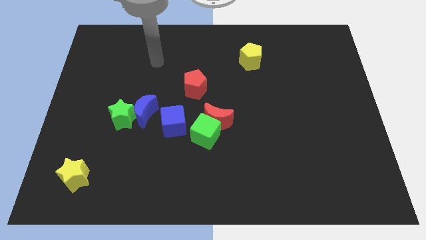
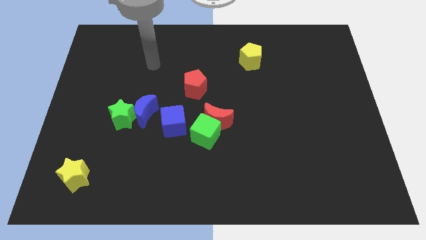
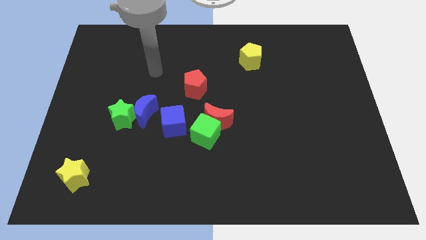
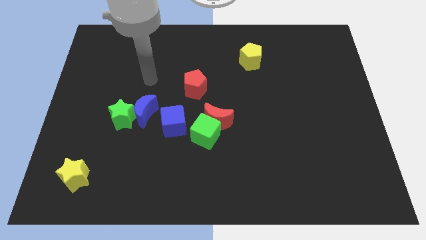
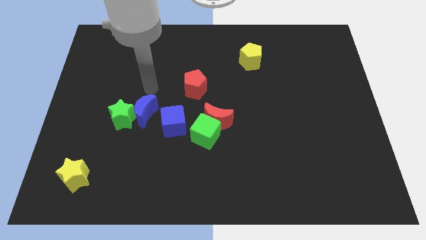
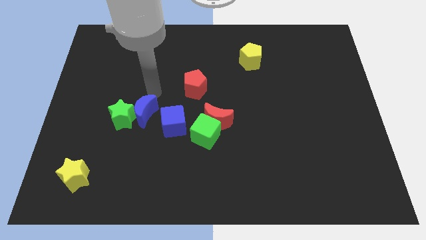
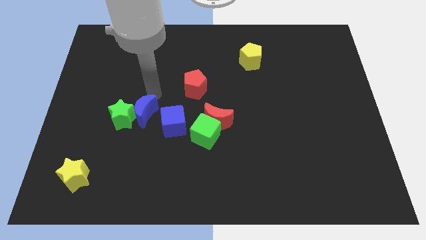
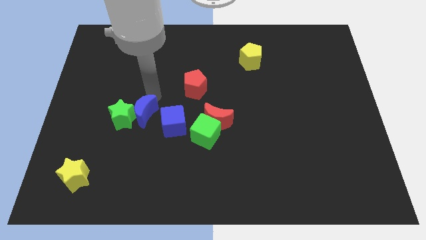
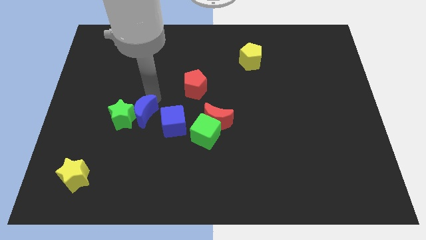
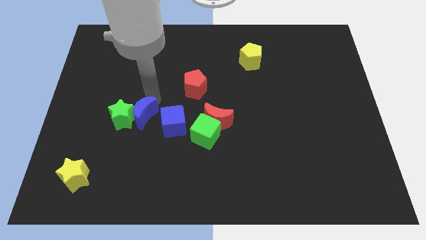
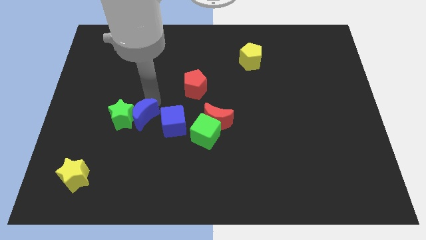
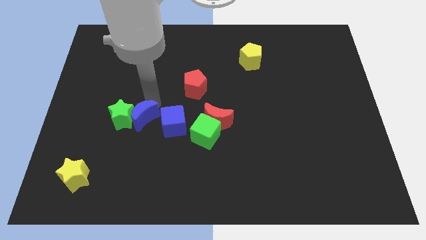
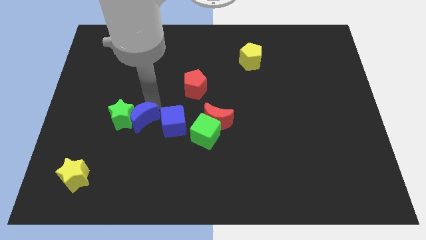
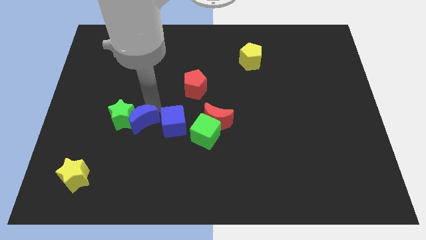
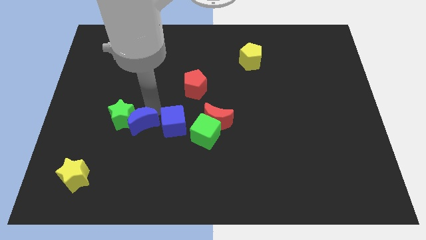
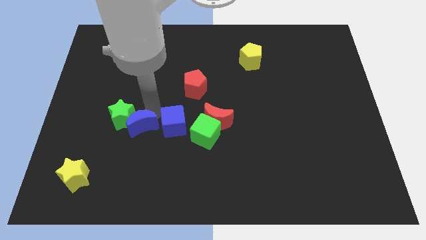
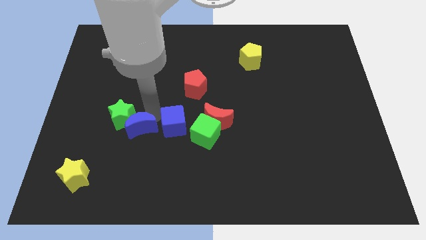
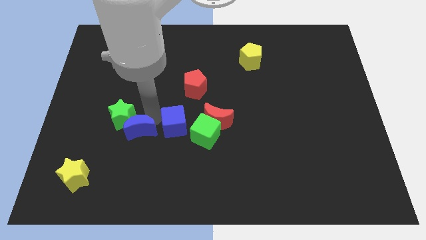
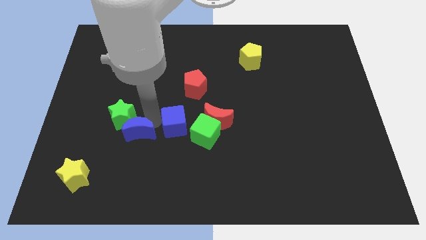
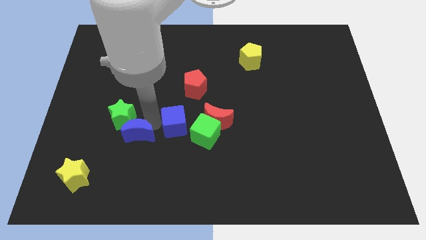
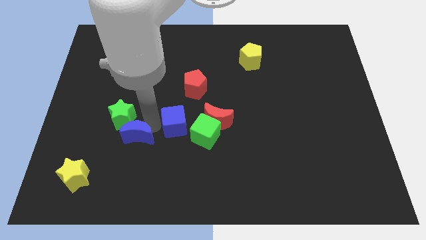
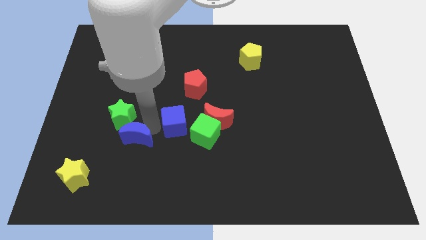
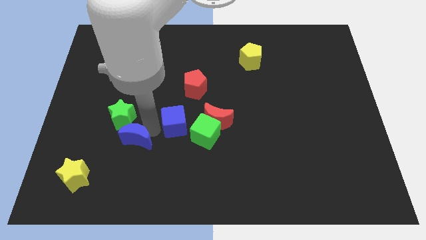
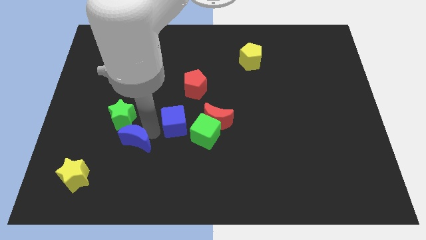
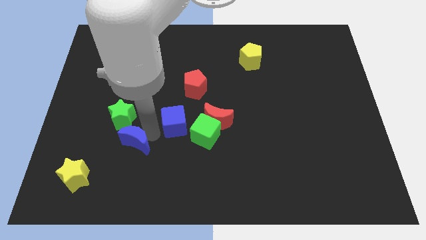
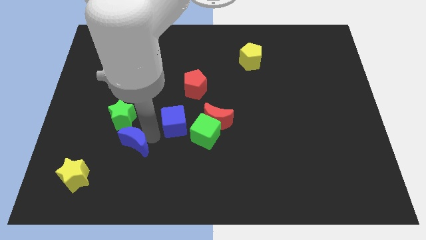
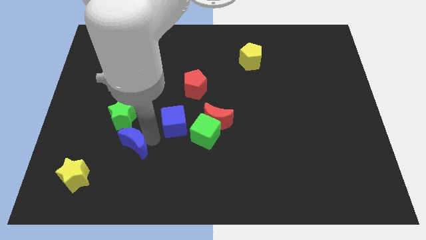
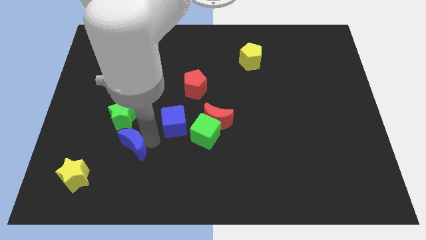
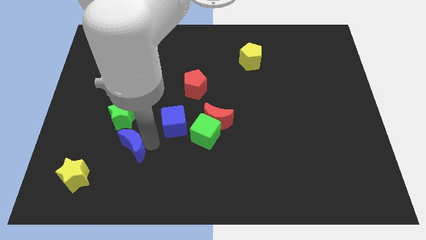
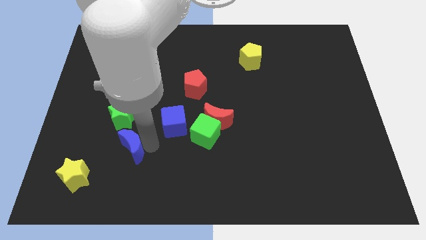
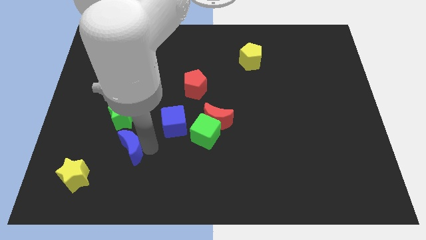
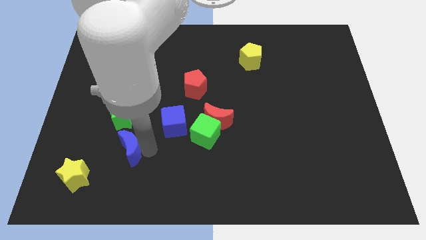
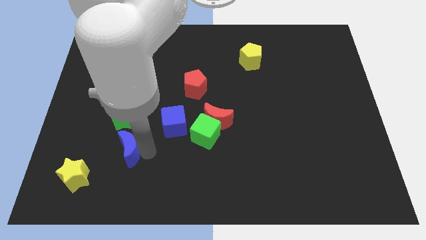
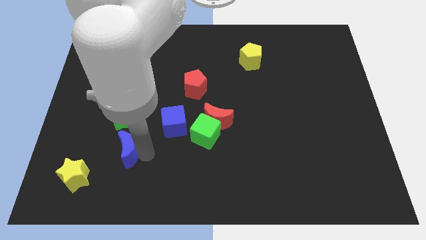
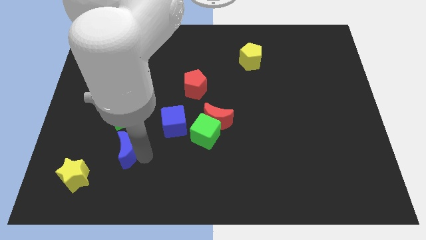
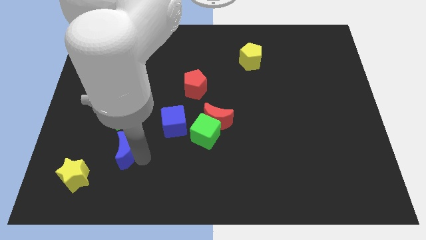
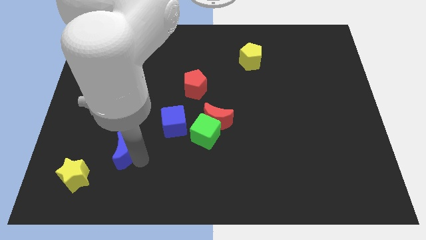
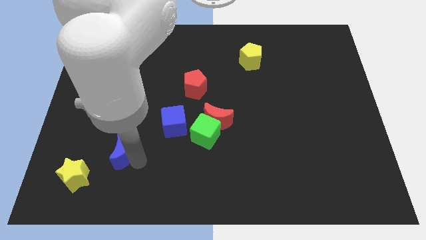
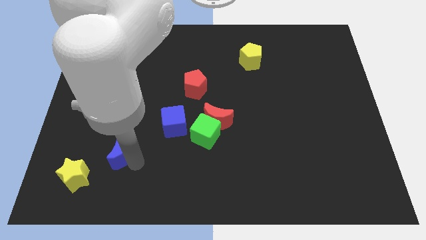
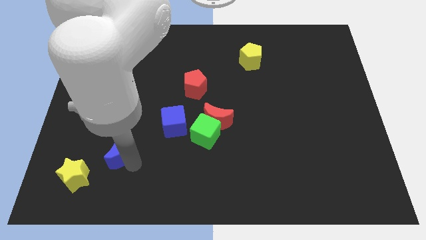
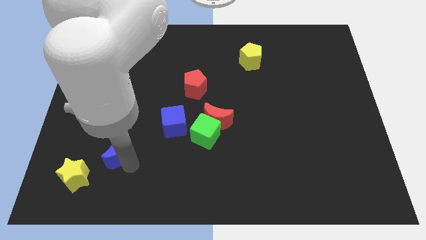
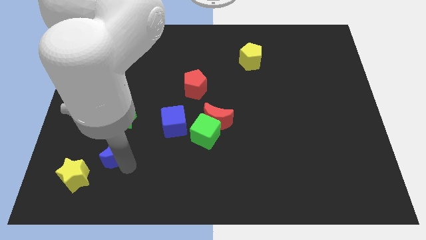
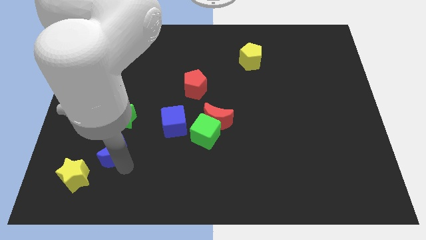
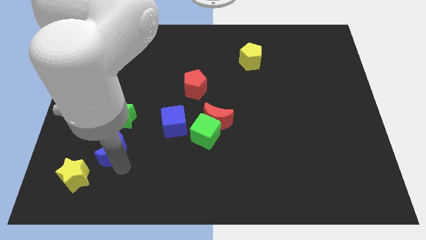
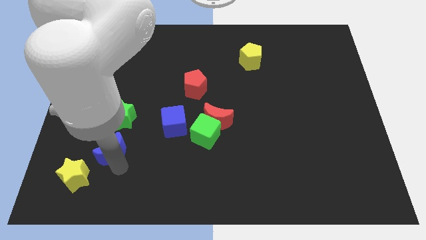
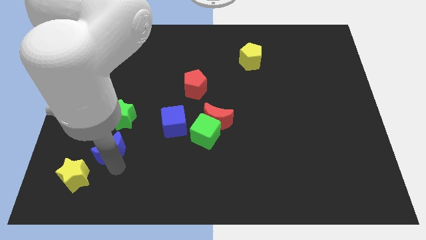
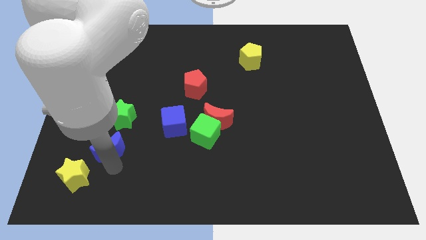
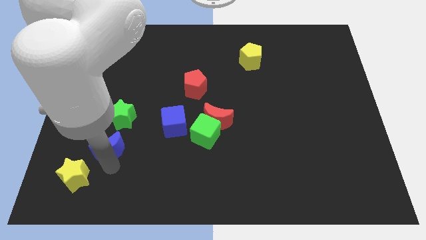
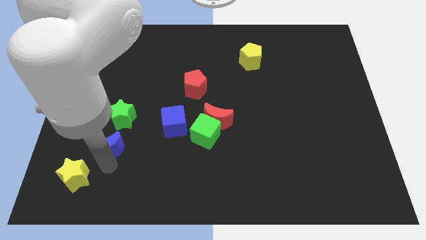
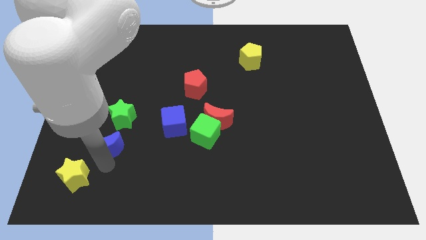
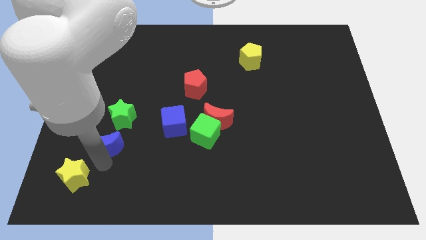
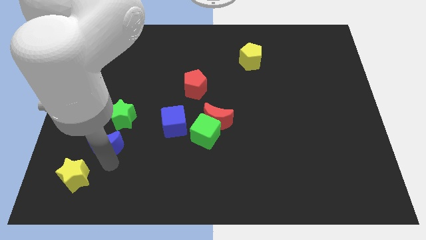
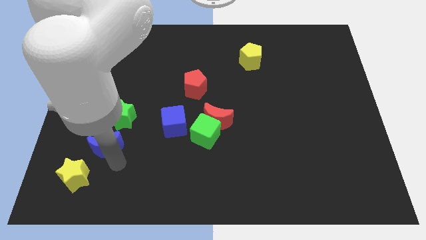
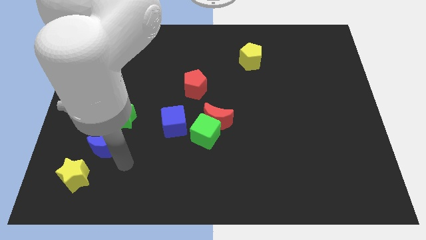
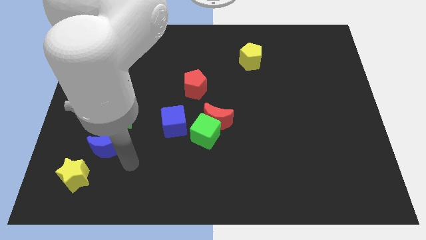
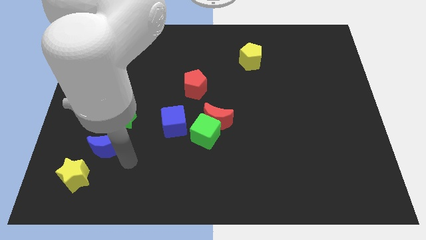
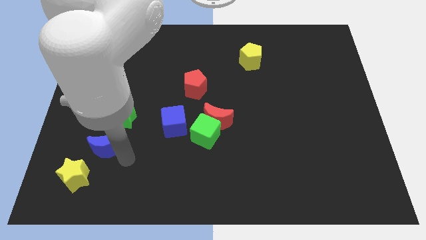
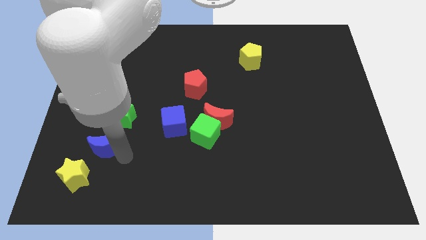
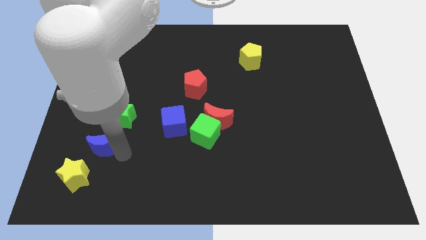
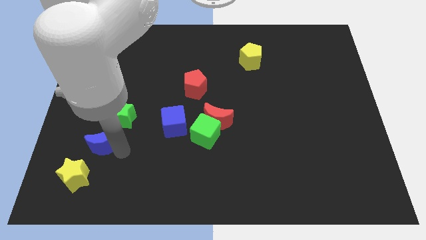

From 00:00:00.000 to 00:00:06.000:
put the blue moon to the top side of the yellow star

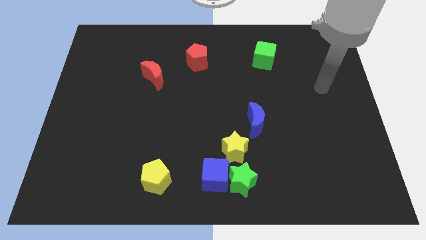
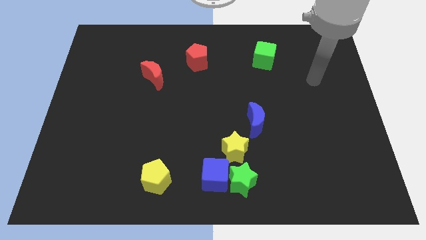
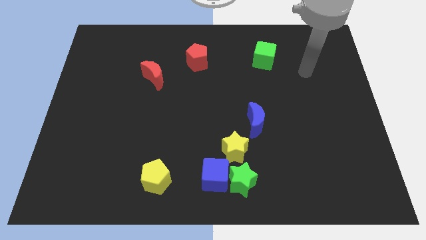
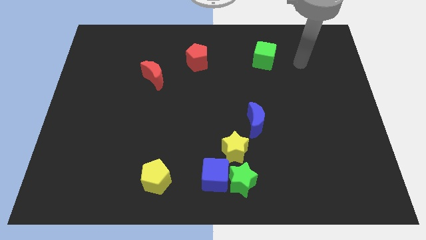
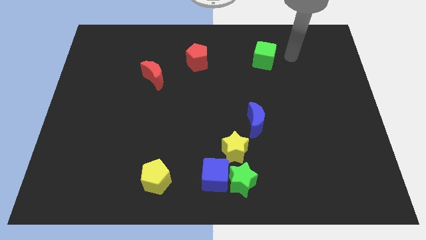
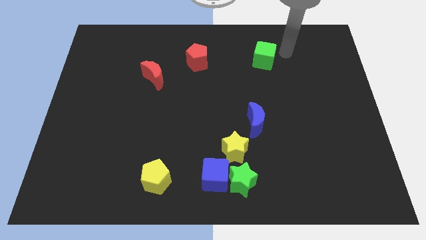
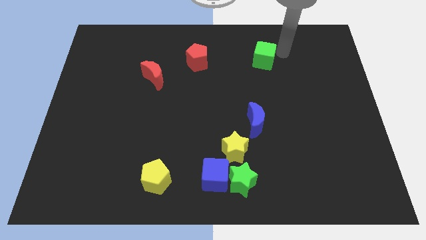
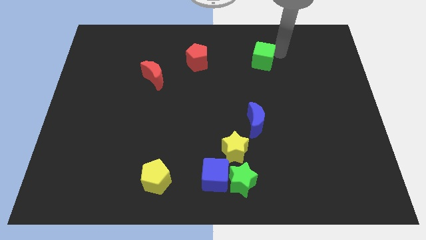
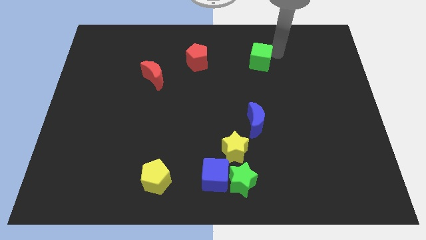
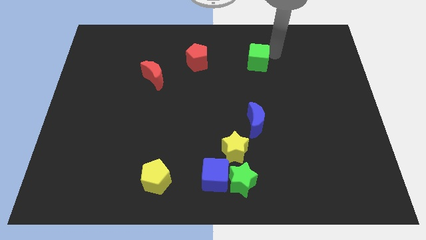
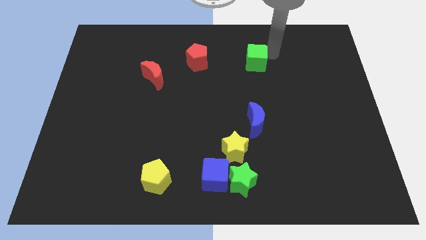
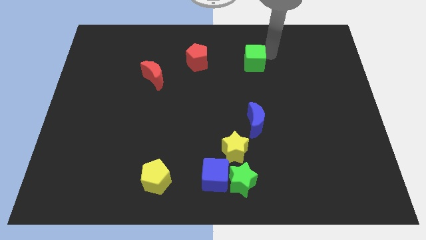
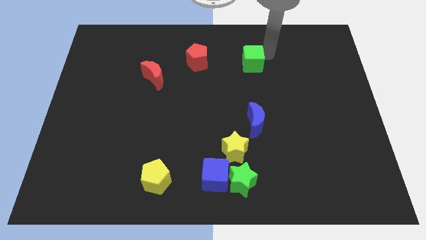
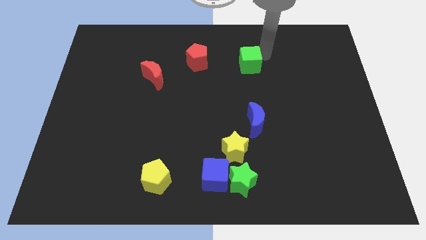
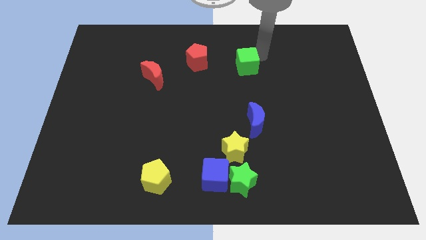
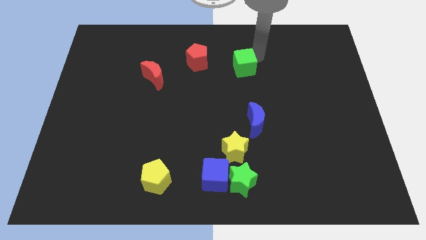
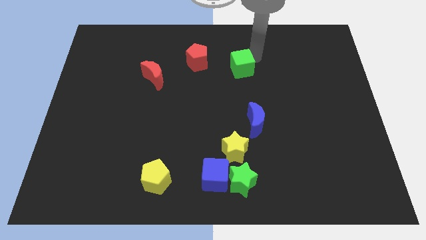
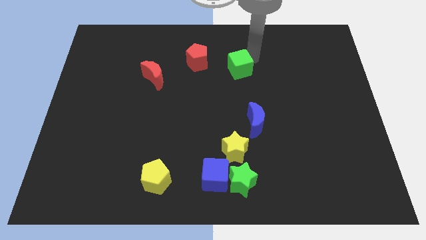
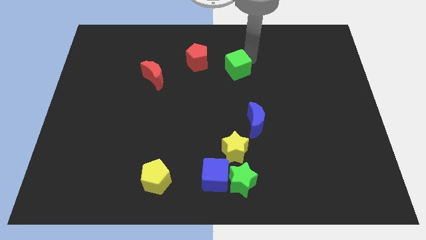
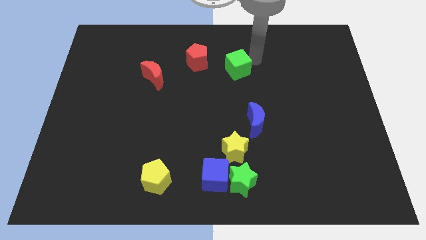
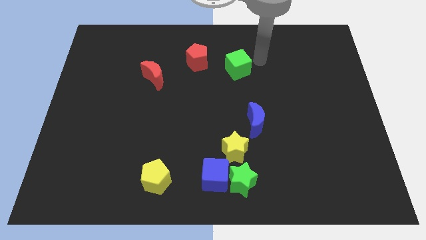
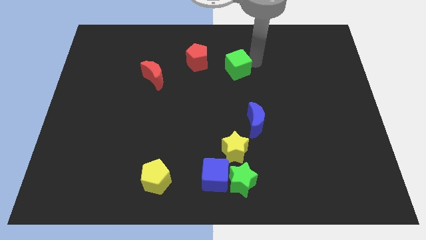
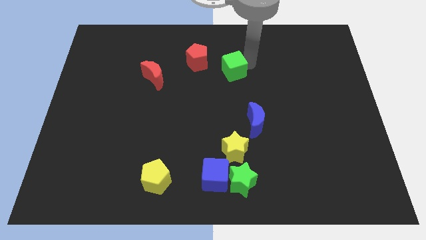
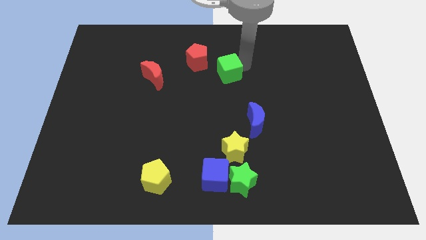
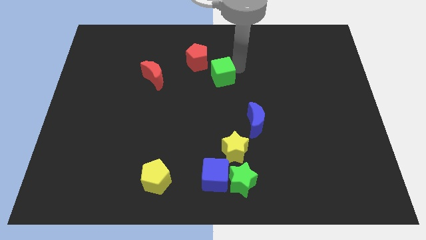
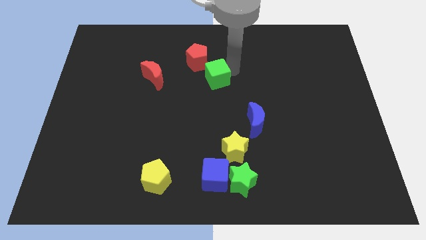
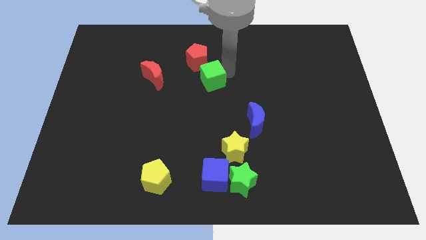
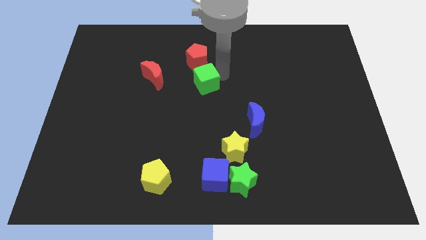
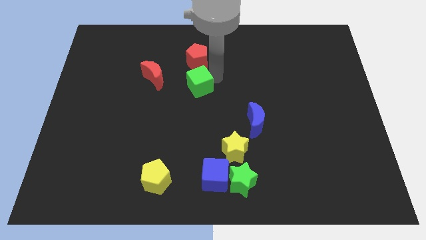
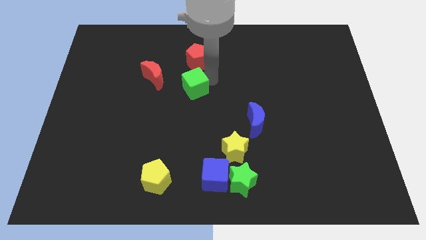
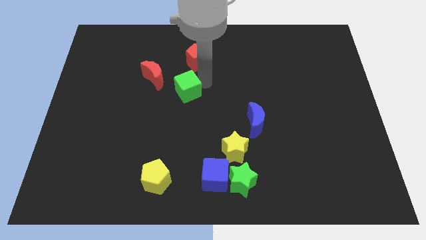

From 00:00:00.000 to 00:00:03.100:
move the green cube to the bottom right of the red moon
